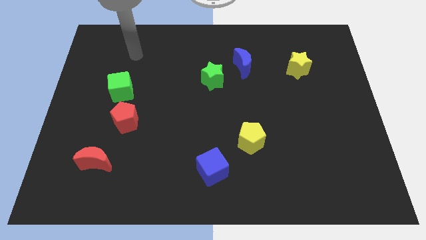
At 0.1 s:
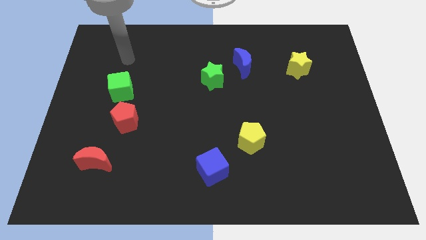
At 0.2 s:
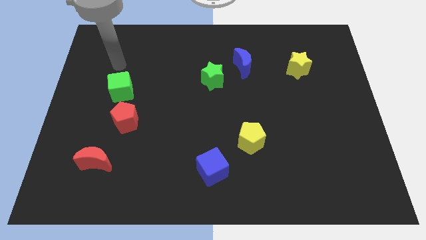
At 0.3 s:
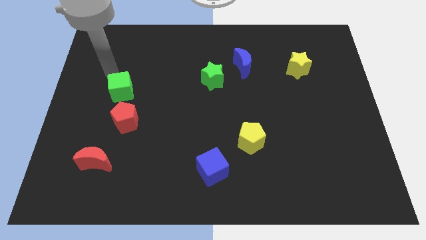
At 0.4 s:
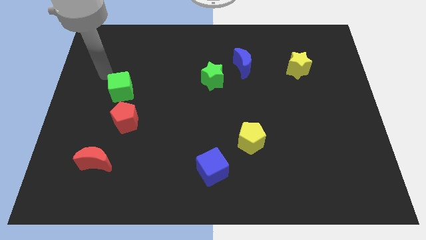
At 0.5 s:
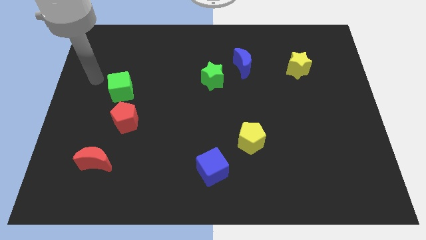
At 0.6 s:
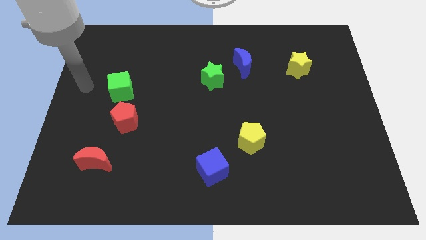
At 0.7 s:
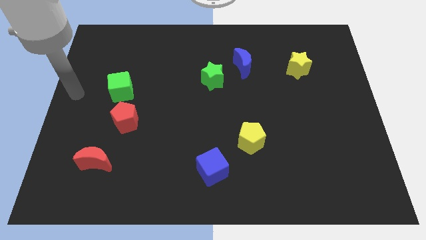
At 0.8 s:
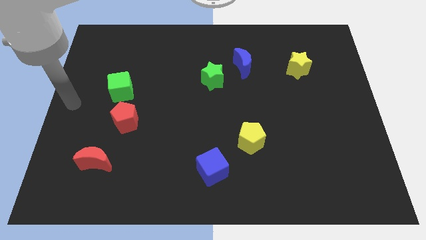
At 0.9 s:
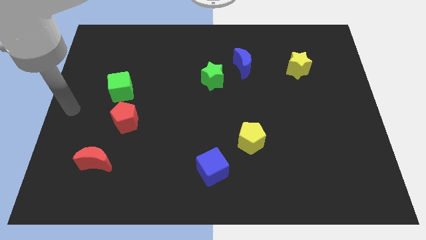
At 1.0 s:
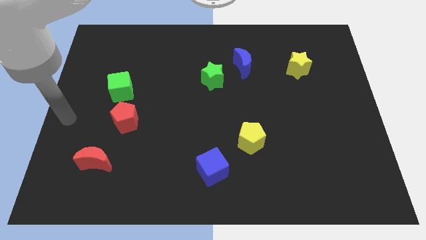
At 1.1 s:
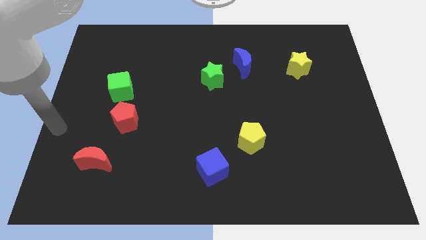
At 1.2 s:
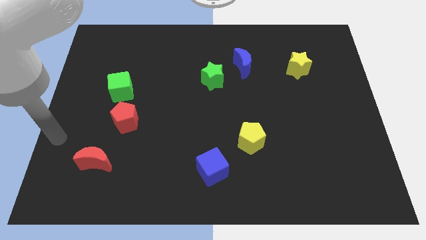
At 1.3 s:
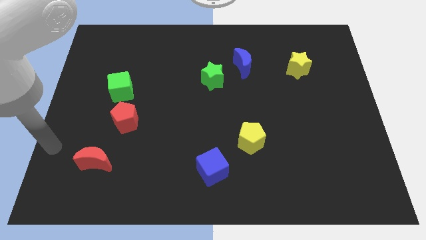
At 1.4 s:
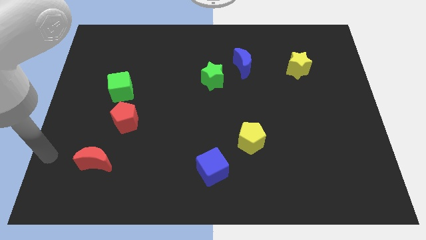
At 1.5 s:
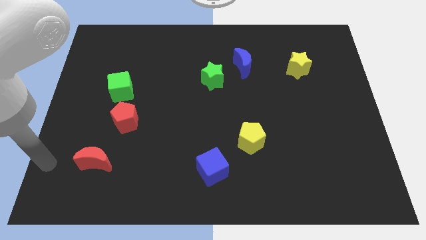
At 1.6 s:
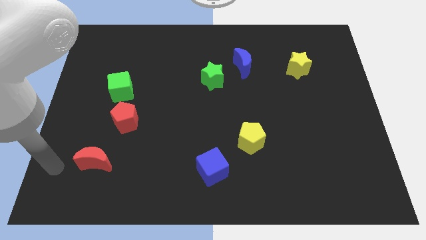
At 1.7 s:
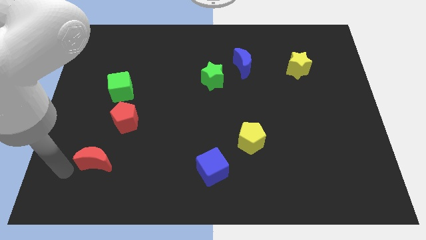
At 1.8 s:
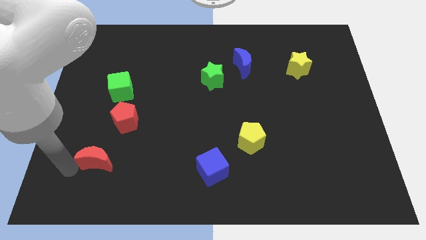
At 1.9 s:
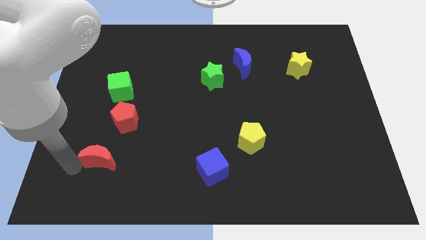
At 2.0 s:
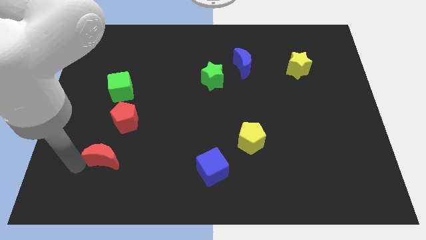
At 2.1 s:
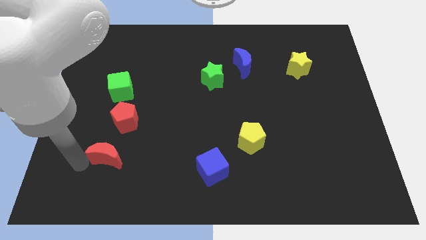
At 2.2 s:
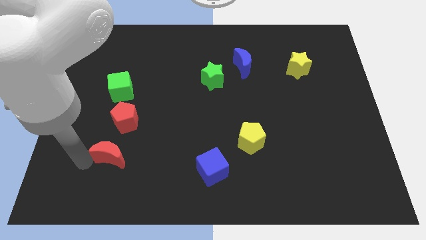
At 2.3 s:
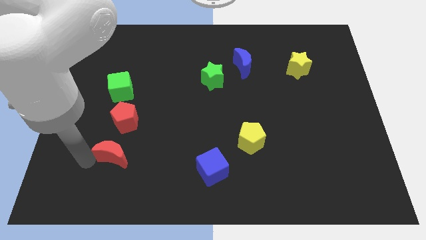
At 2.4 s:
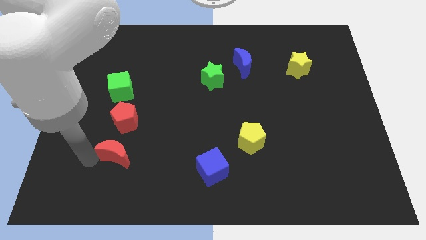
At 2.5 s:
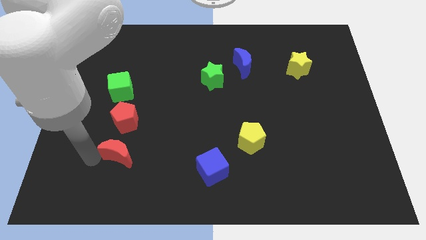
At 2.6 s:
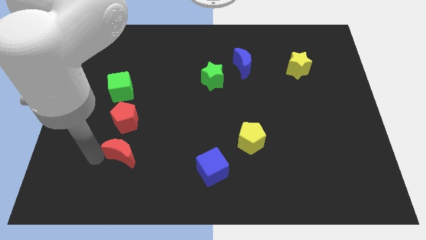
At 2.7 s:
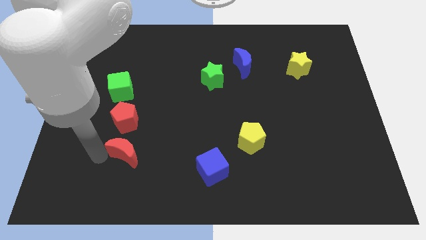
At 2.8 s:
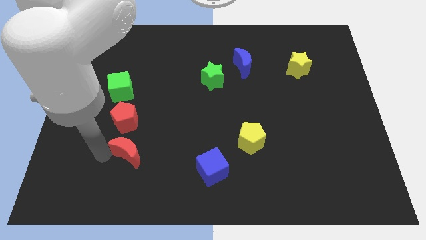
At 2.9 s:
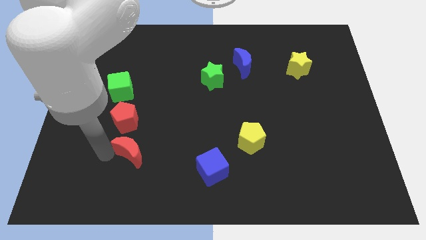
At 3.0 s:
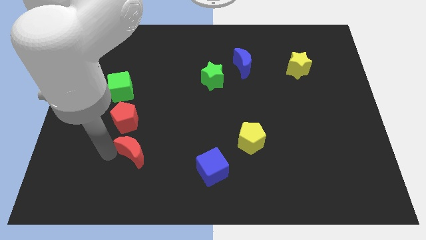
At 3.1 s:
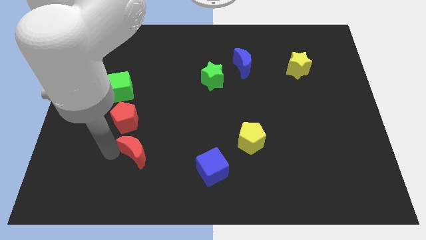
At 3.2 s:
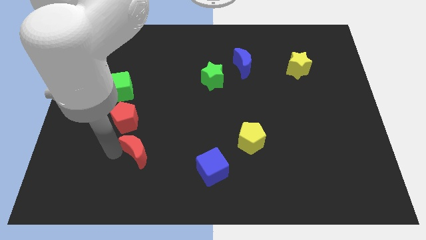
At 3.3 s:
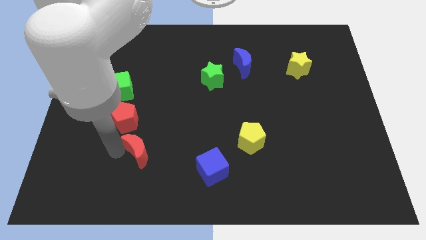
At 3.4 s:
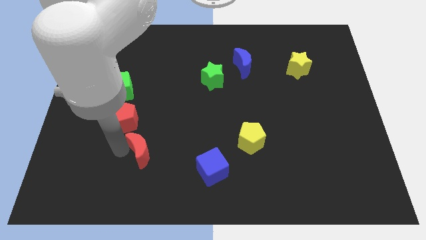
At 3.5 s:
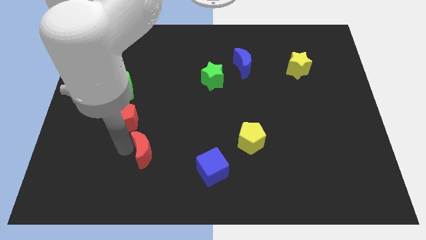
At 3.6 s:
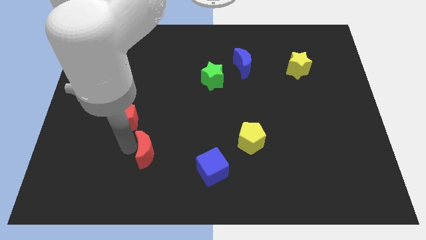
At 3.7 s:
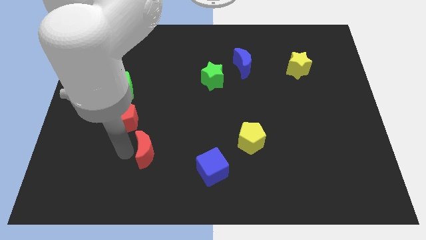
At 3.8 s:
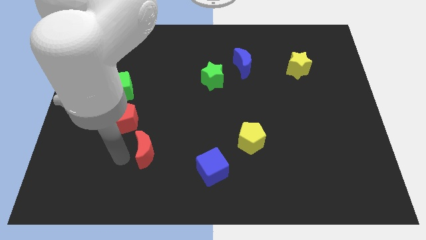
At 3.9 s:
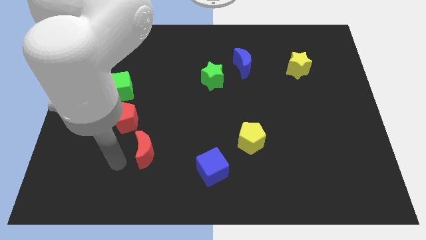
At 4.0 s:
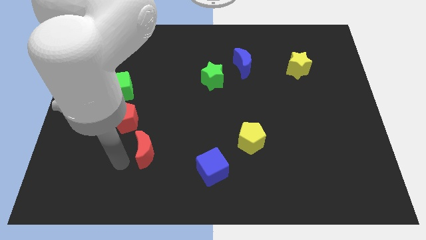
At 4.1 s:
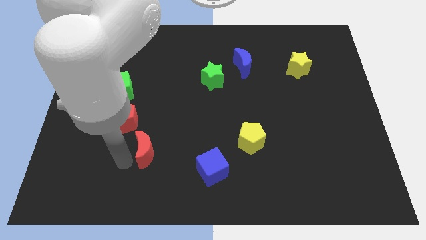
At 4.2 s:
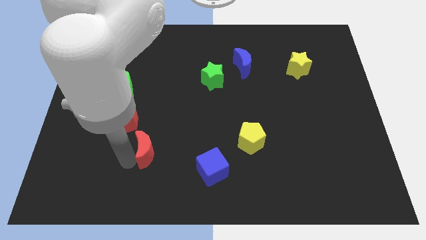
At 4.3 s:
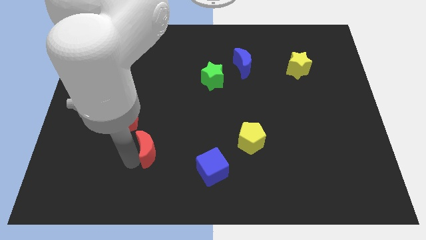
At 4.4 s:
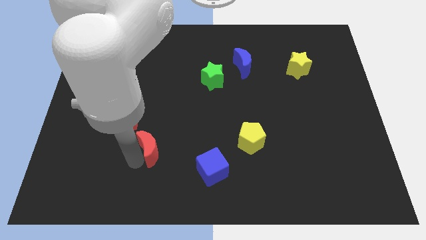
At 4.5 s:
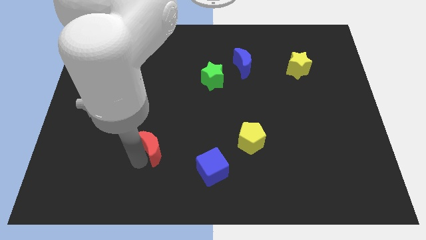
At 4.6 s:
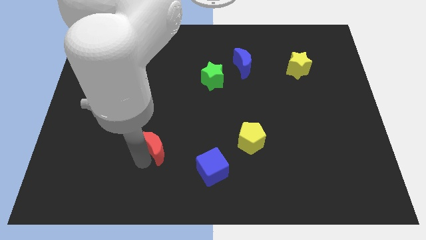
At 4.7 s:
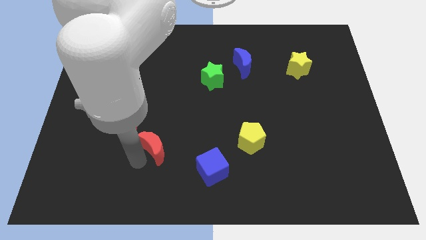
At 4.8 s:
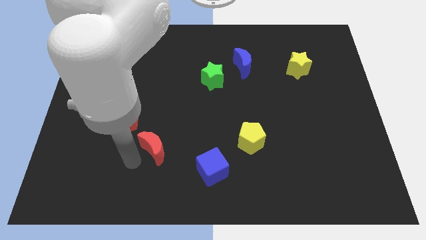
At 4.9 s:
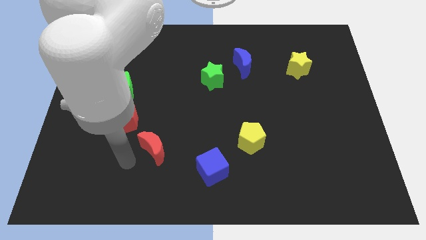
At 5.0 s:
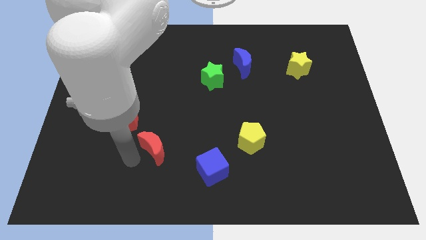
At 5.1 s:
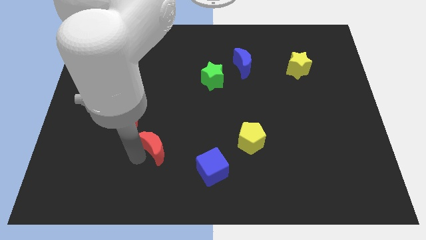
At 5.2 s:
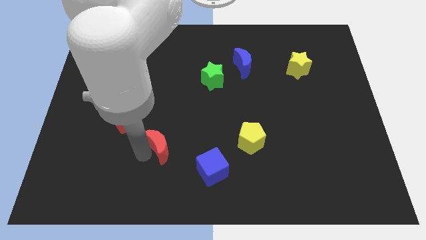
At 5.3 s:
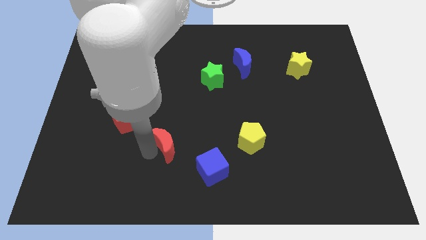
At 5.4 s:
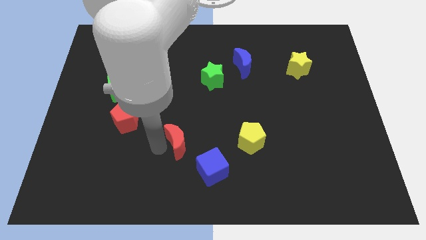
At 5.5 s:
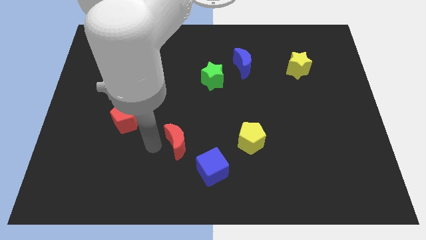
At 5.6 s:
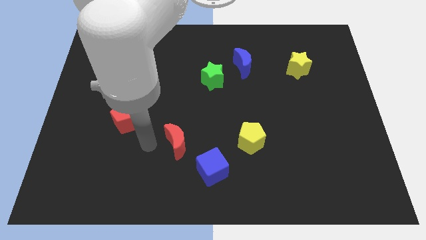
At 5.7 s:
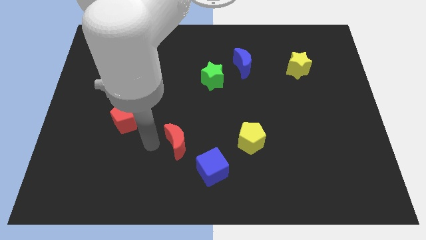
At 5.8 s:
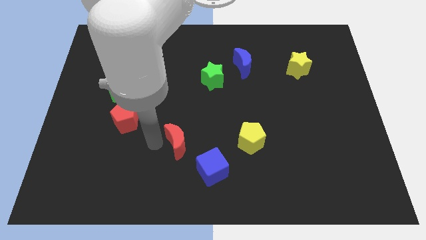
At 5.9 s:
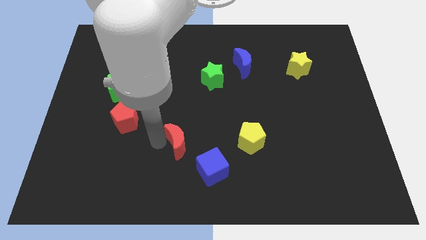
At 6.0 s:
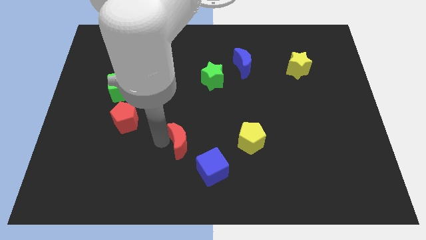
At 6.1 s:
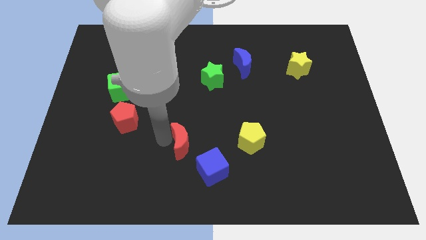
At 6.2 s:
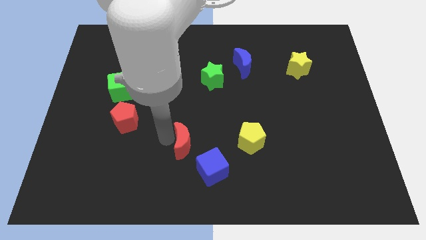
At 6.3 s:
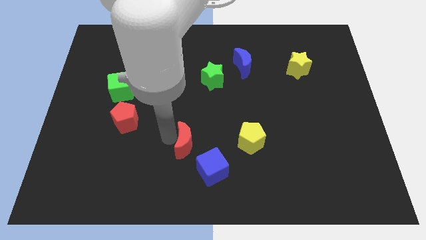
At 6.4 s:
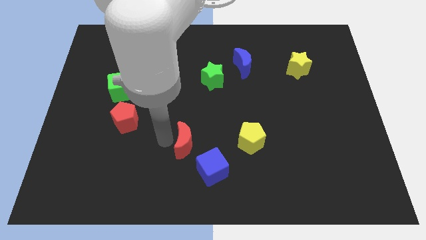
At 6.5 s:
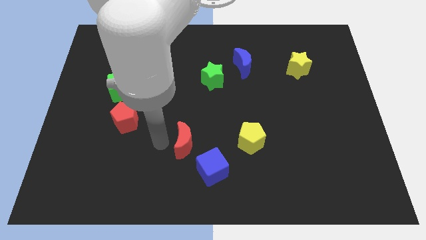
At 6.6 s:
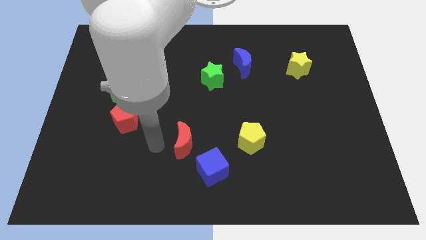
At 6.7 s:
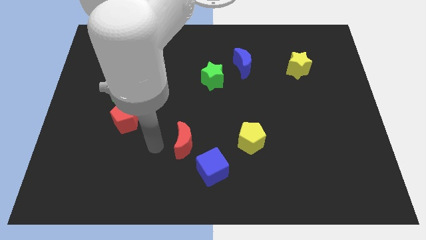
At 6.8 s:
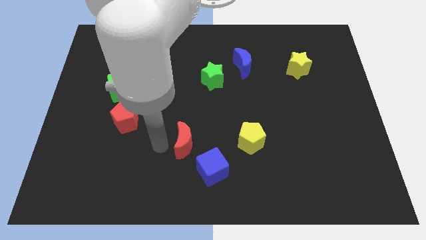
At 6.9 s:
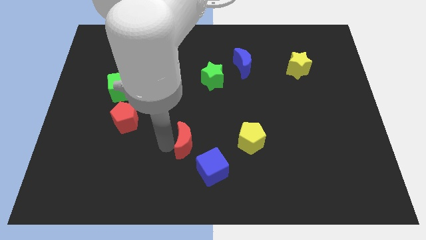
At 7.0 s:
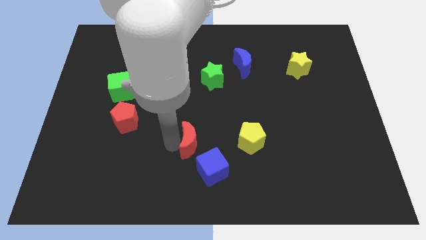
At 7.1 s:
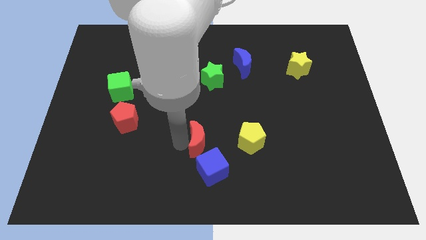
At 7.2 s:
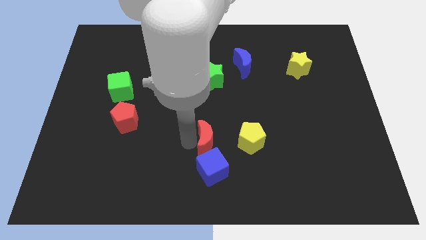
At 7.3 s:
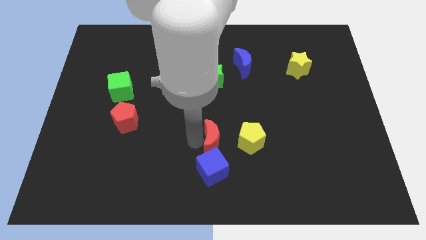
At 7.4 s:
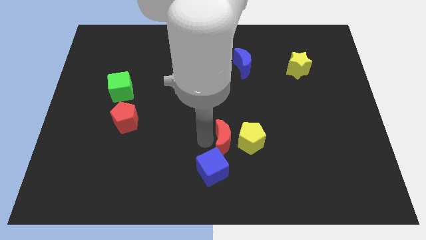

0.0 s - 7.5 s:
move the red moon close to the yellow pentagon
